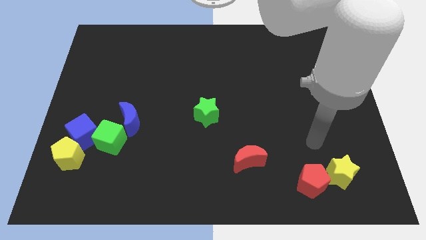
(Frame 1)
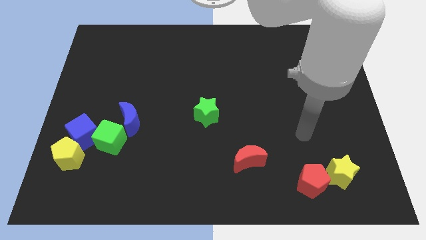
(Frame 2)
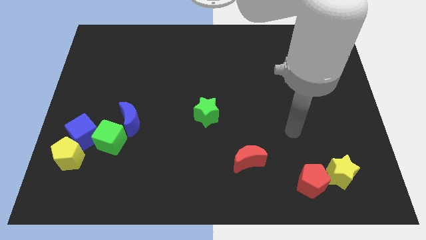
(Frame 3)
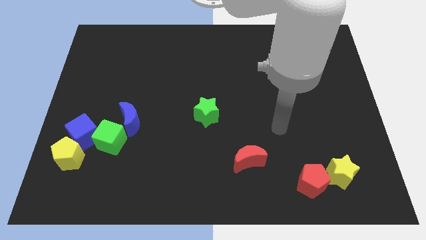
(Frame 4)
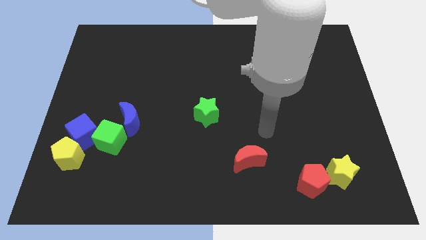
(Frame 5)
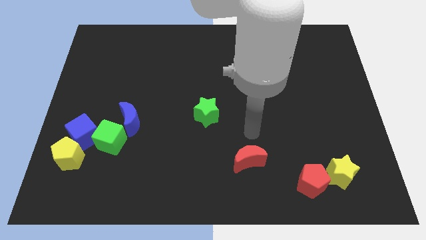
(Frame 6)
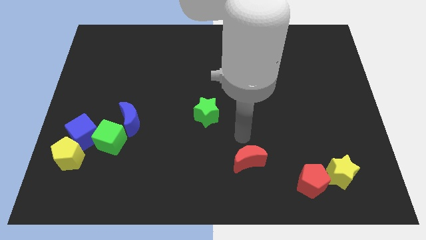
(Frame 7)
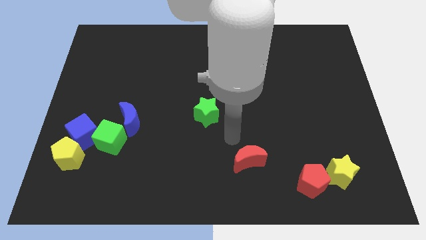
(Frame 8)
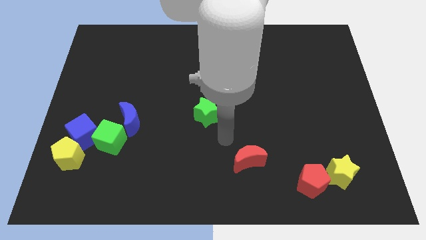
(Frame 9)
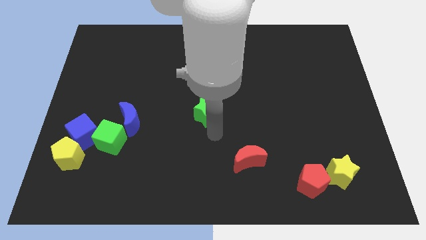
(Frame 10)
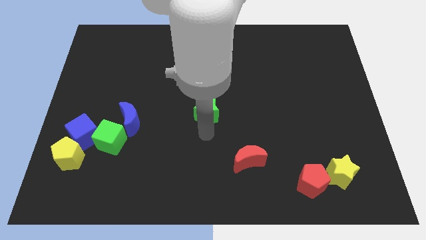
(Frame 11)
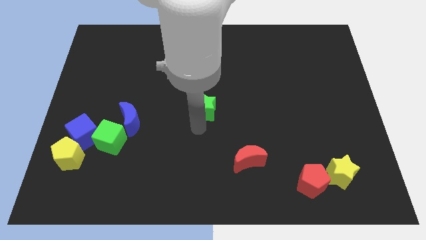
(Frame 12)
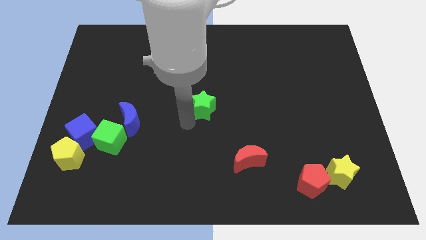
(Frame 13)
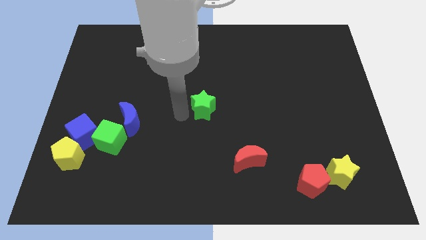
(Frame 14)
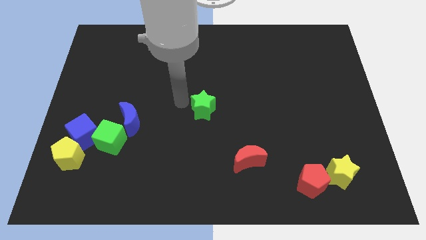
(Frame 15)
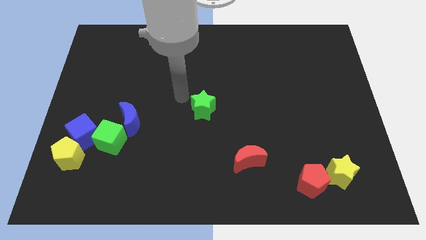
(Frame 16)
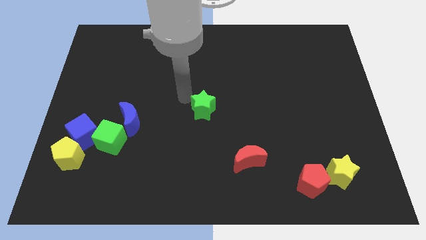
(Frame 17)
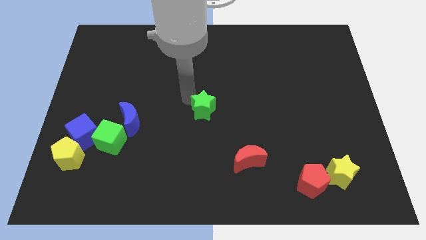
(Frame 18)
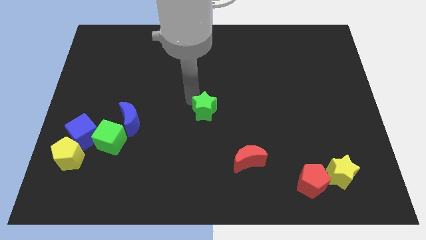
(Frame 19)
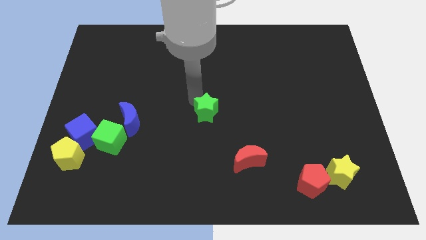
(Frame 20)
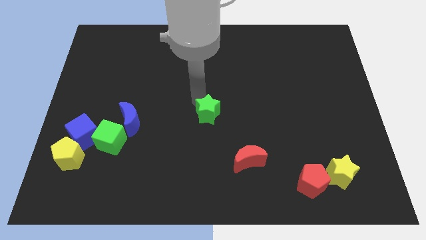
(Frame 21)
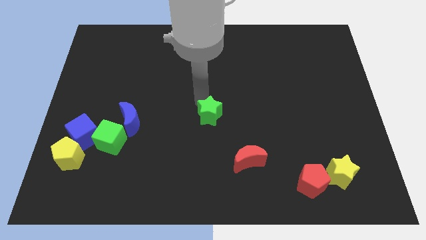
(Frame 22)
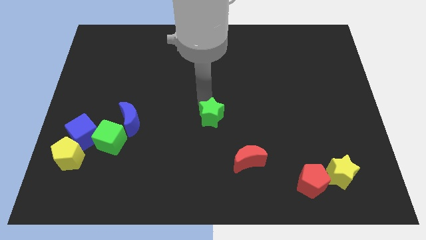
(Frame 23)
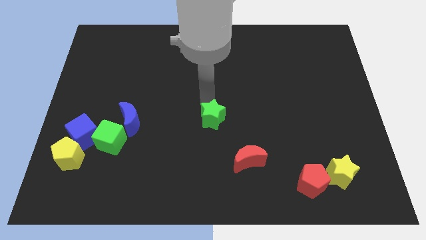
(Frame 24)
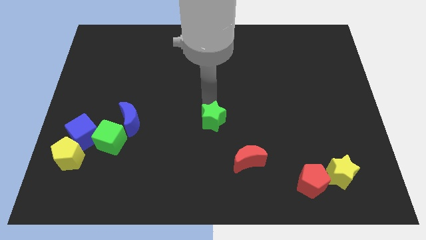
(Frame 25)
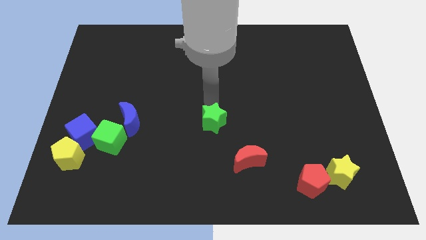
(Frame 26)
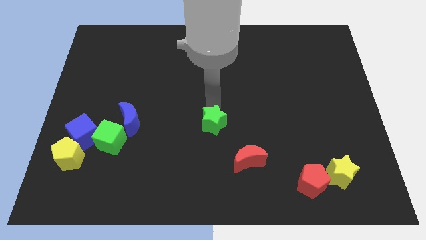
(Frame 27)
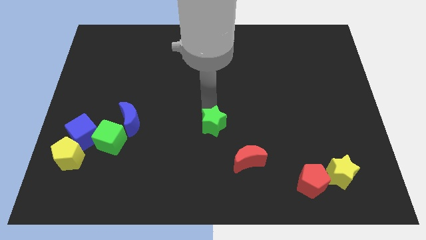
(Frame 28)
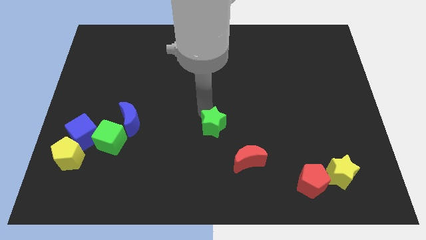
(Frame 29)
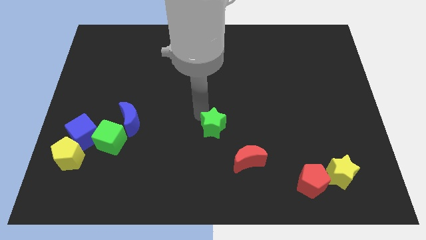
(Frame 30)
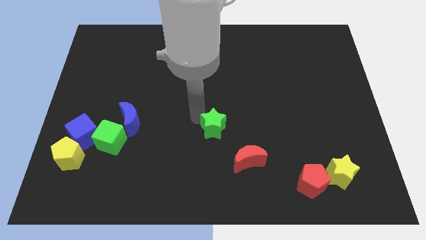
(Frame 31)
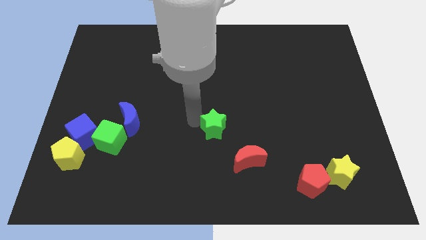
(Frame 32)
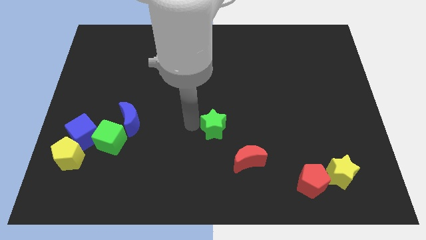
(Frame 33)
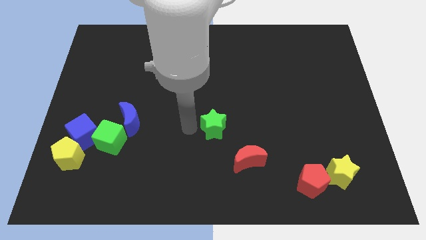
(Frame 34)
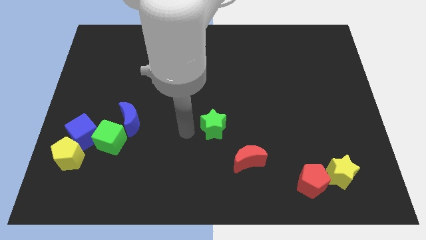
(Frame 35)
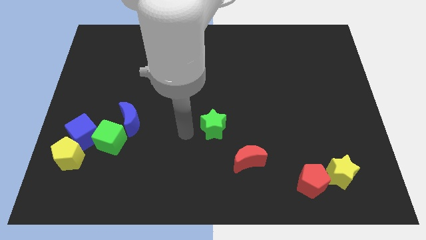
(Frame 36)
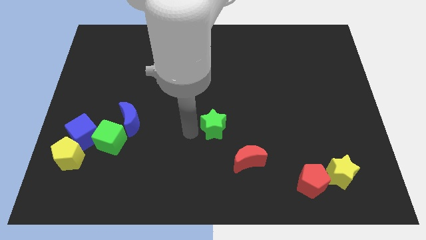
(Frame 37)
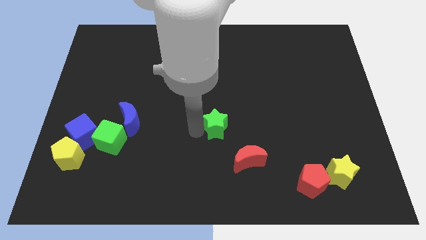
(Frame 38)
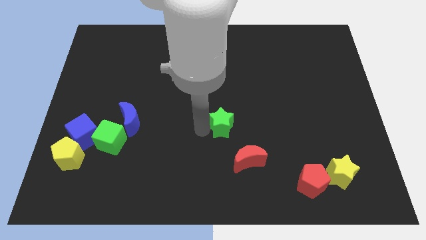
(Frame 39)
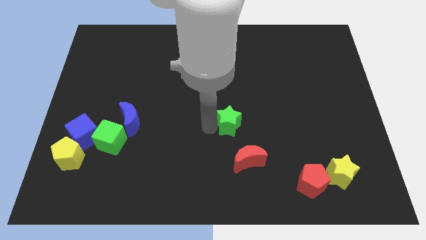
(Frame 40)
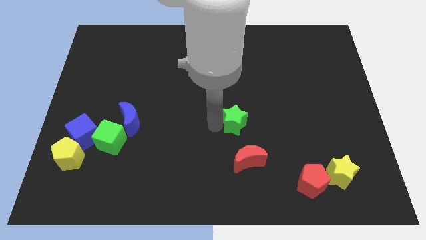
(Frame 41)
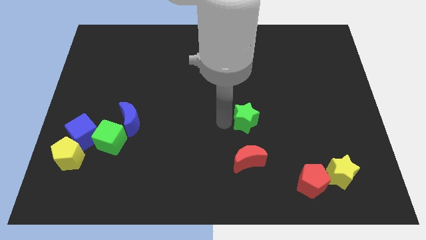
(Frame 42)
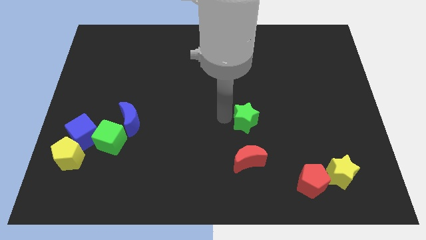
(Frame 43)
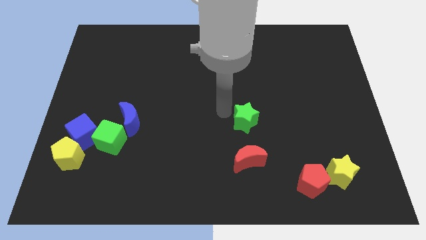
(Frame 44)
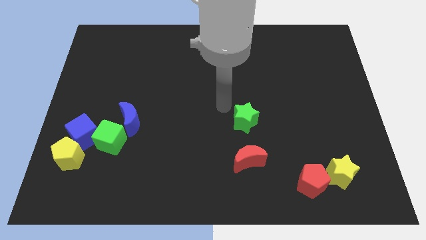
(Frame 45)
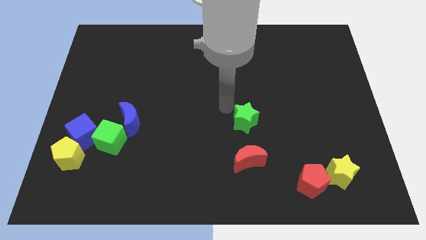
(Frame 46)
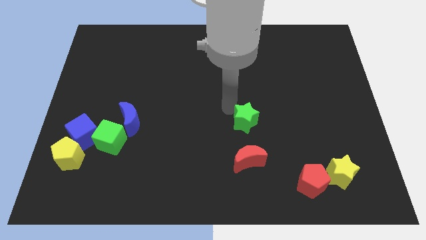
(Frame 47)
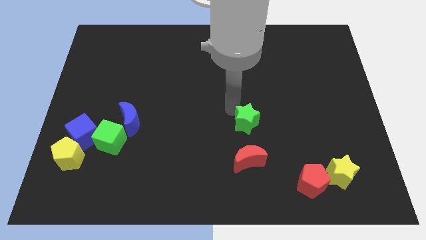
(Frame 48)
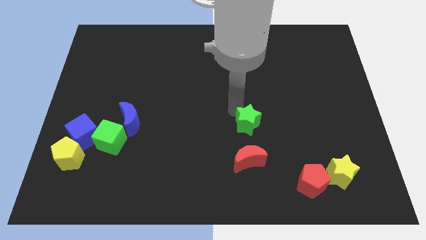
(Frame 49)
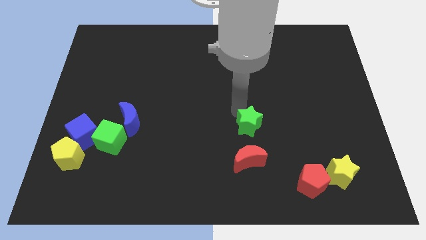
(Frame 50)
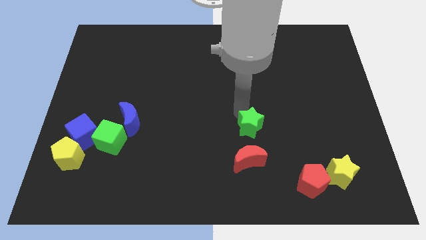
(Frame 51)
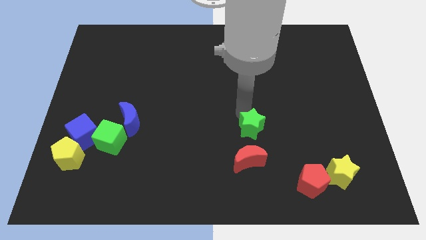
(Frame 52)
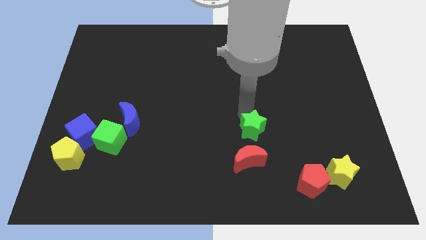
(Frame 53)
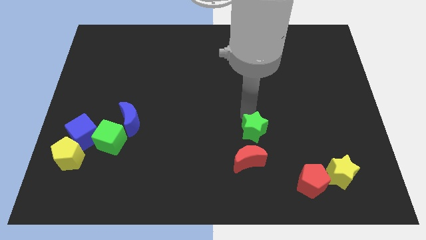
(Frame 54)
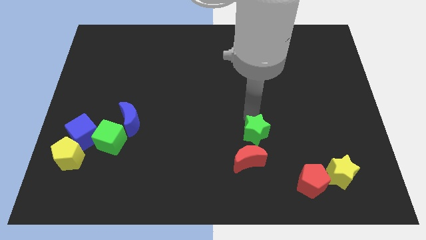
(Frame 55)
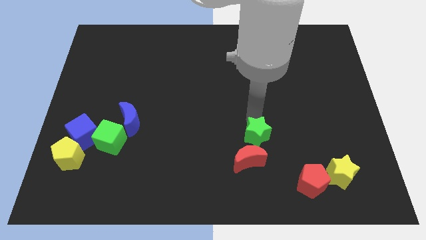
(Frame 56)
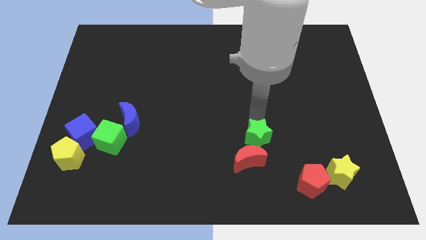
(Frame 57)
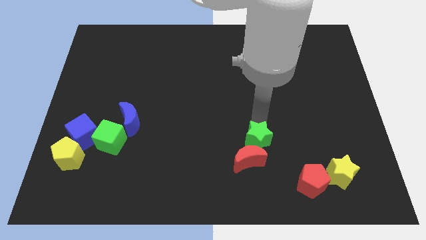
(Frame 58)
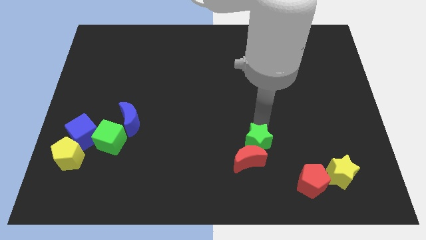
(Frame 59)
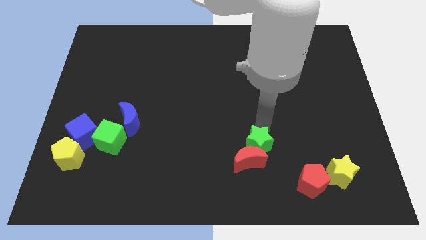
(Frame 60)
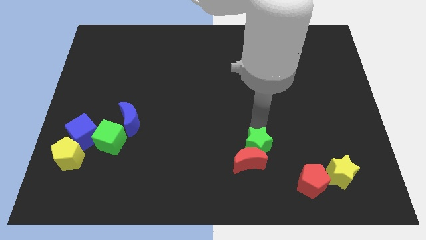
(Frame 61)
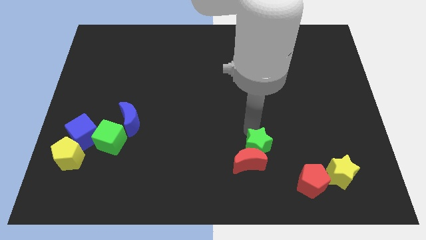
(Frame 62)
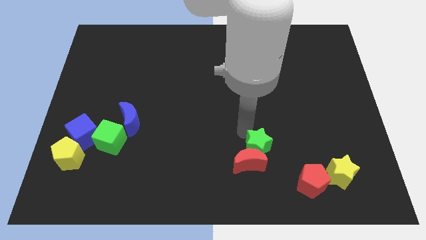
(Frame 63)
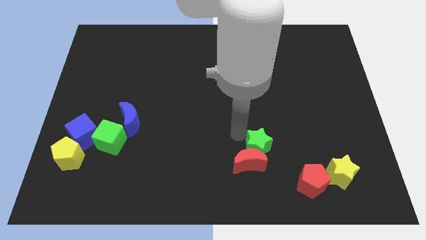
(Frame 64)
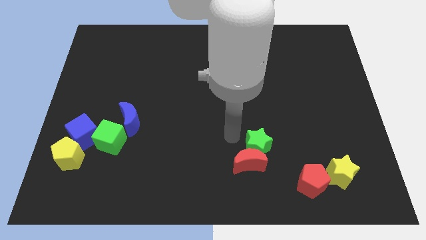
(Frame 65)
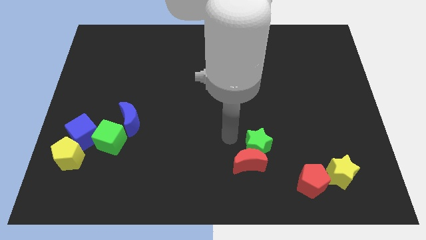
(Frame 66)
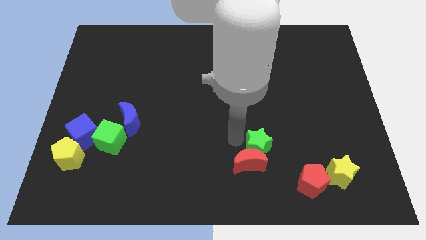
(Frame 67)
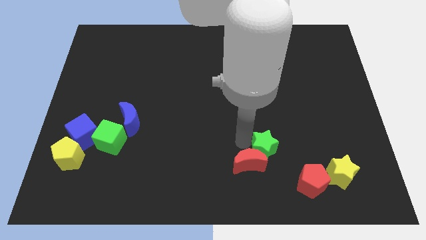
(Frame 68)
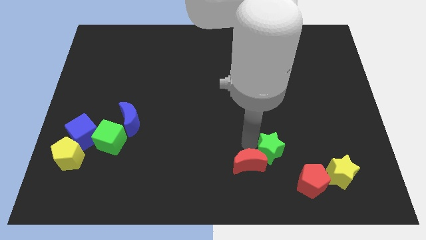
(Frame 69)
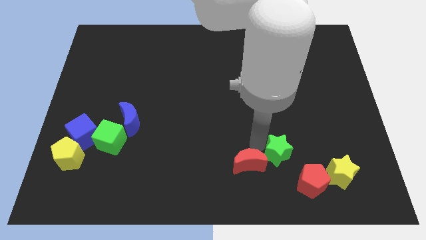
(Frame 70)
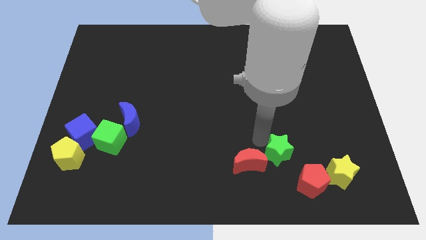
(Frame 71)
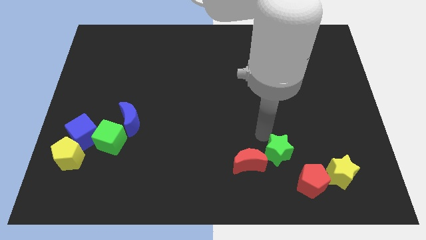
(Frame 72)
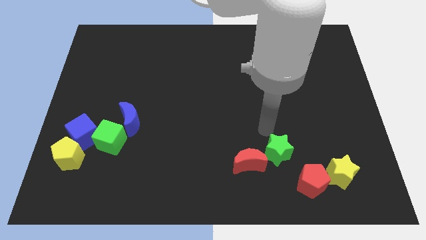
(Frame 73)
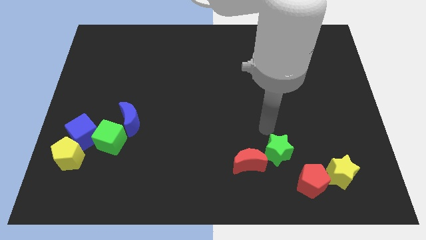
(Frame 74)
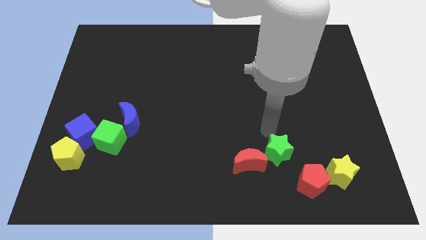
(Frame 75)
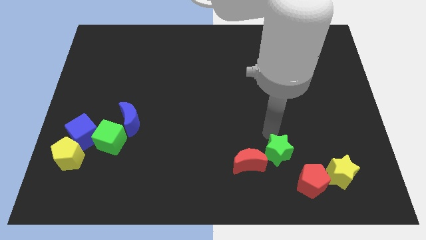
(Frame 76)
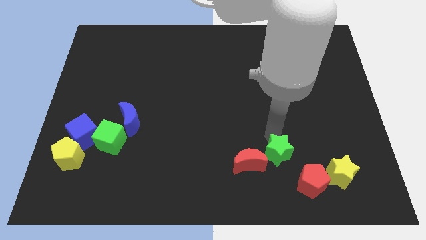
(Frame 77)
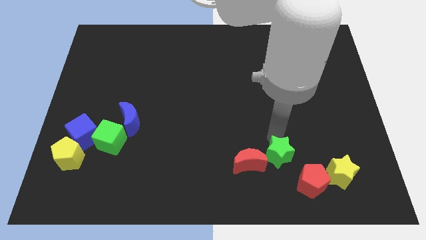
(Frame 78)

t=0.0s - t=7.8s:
slide the green star to the left side of the yellow star
